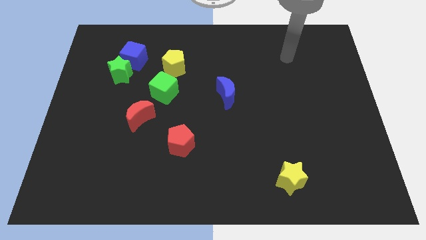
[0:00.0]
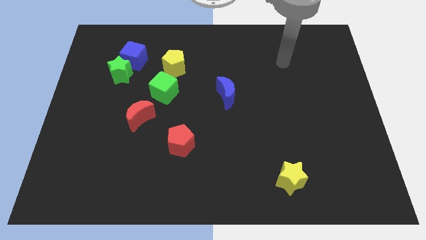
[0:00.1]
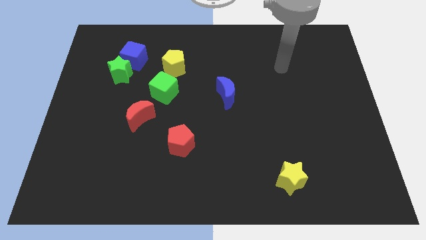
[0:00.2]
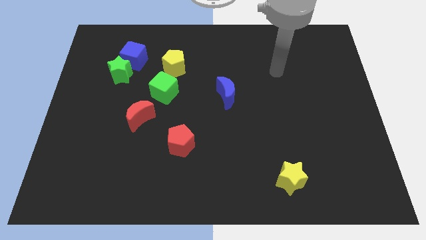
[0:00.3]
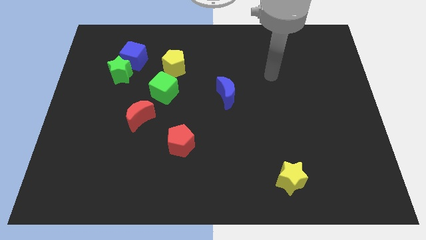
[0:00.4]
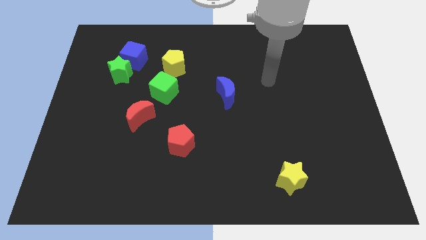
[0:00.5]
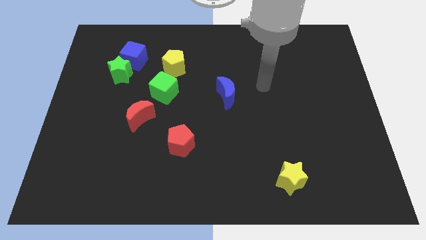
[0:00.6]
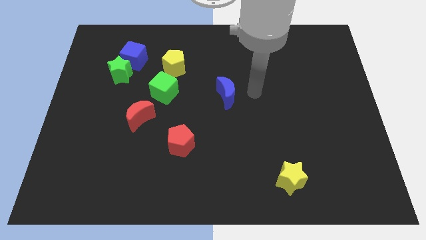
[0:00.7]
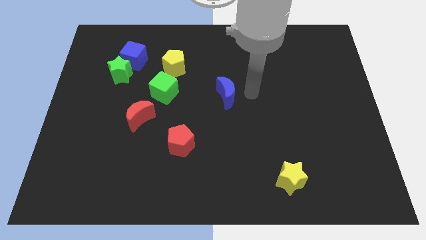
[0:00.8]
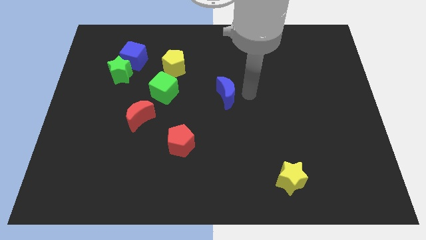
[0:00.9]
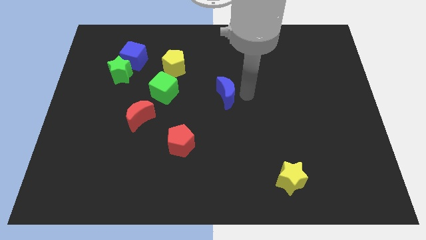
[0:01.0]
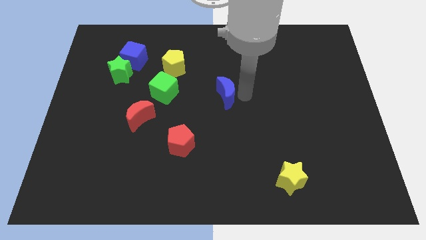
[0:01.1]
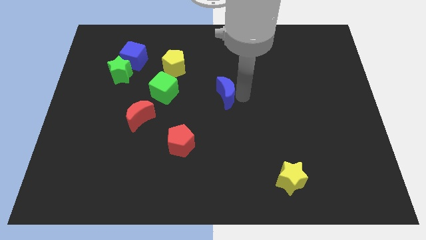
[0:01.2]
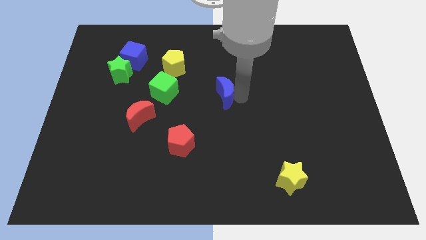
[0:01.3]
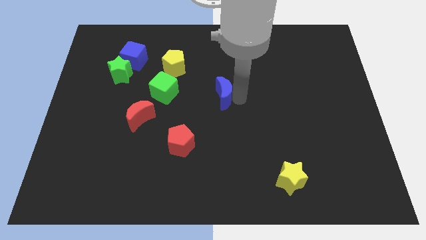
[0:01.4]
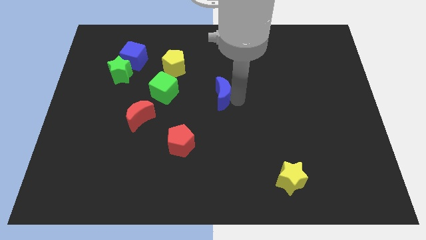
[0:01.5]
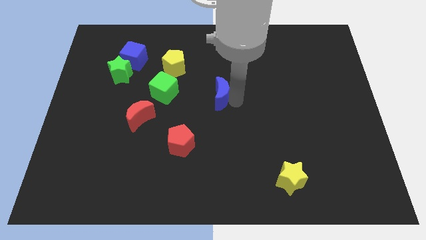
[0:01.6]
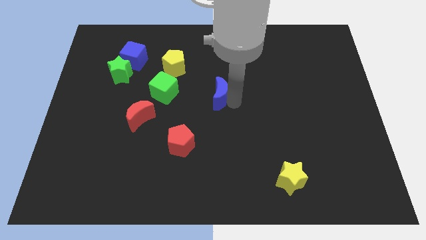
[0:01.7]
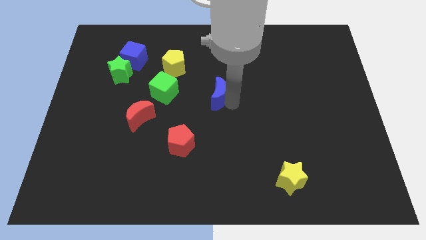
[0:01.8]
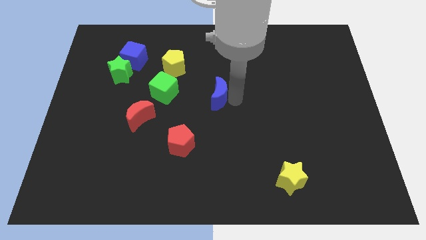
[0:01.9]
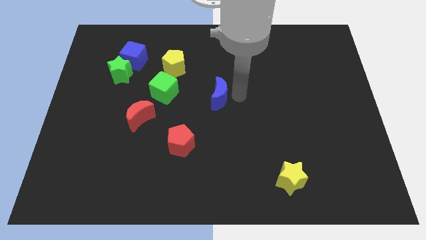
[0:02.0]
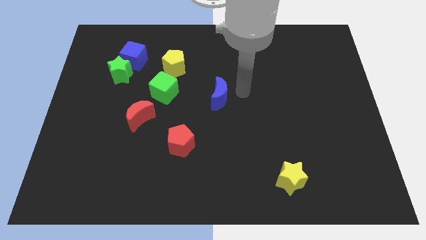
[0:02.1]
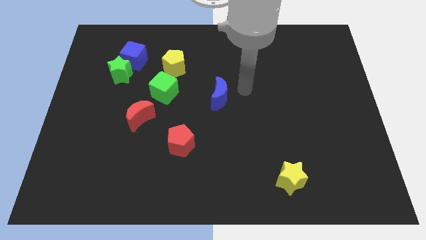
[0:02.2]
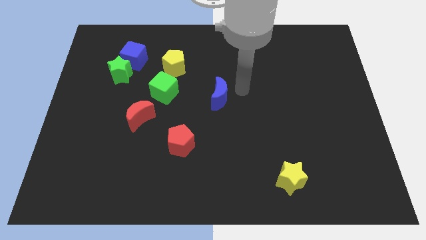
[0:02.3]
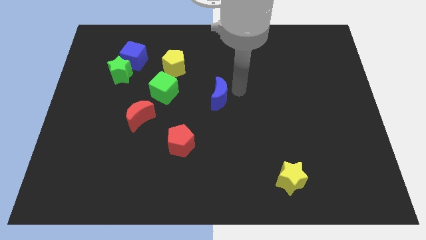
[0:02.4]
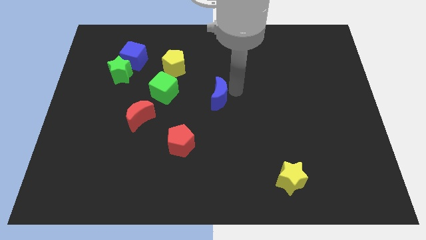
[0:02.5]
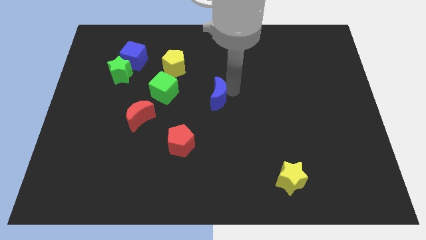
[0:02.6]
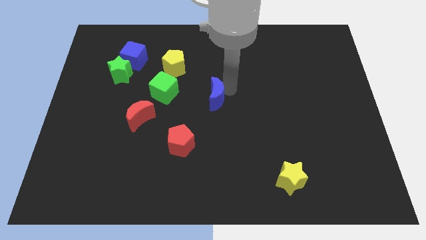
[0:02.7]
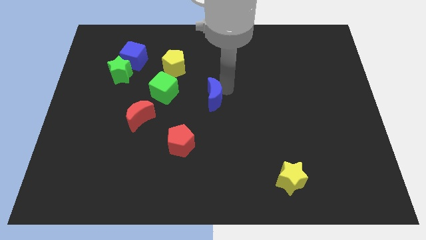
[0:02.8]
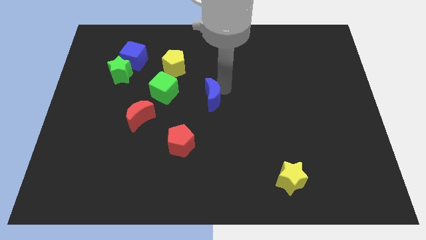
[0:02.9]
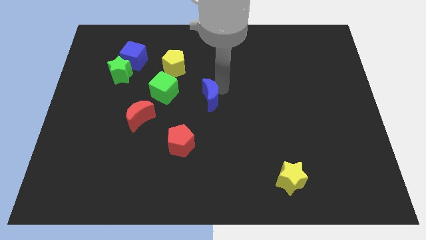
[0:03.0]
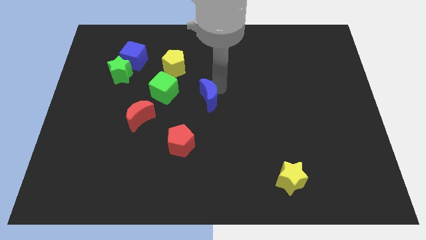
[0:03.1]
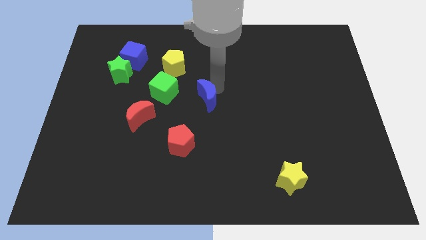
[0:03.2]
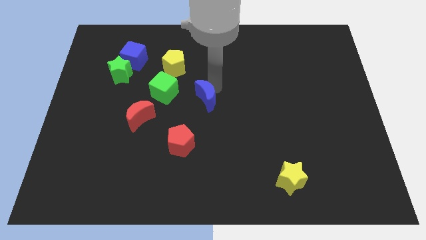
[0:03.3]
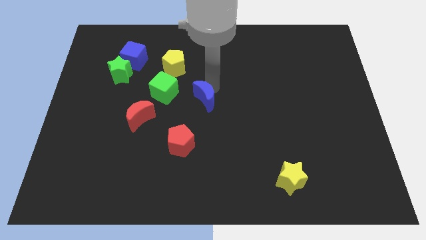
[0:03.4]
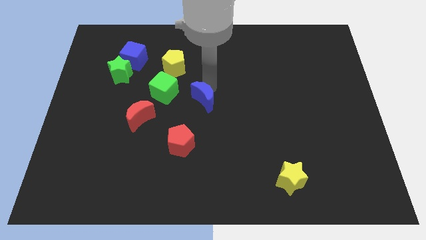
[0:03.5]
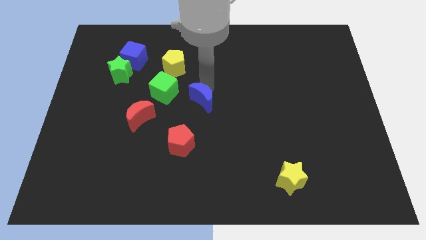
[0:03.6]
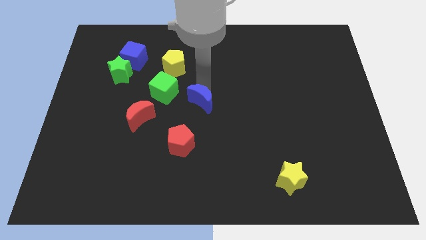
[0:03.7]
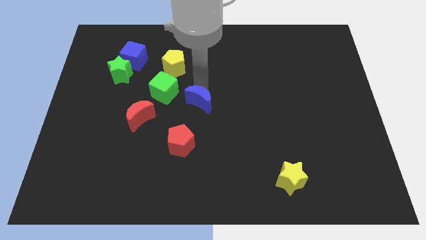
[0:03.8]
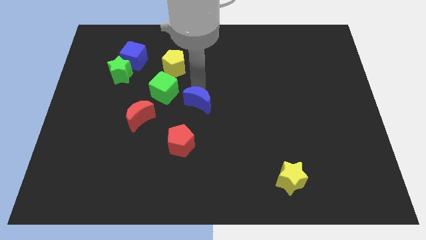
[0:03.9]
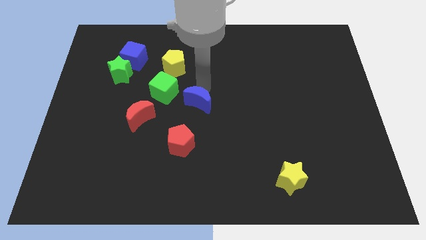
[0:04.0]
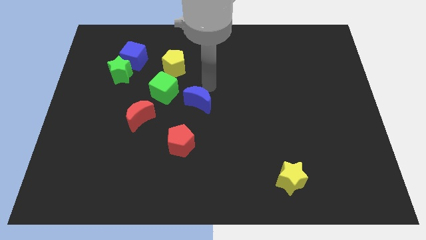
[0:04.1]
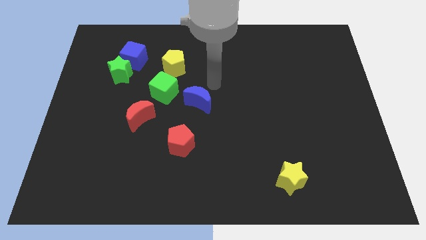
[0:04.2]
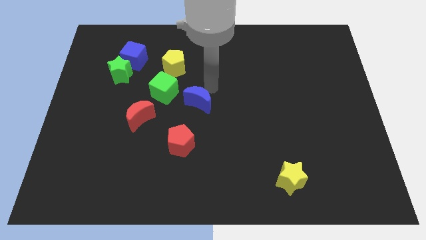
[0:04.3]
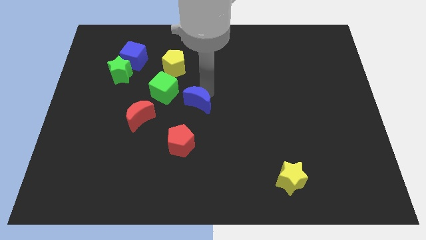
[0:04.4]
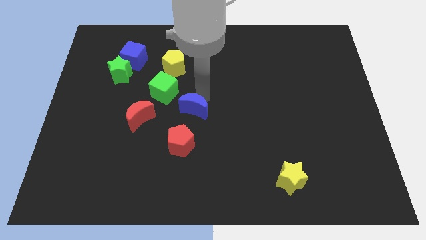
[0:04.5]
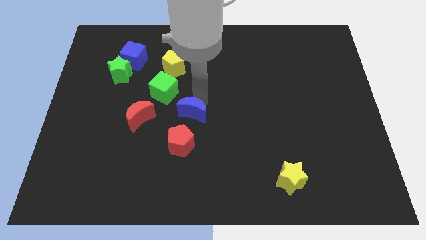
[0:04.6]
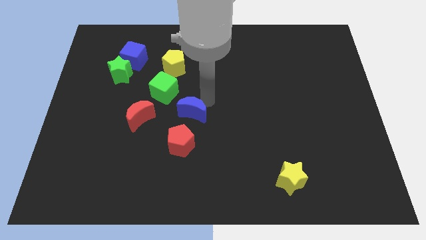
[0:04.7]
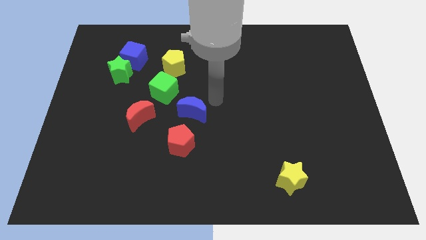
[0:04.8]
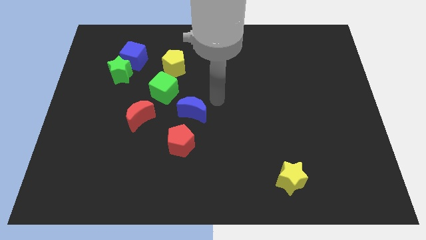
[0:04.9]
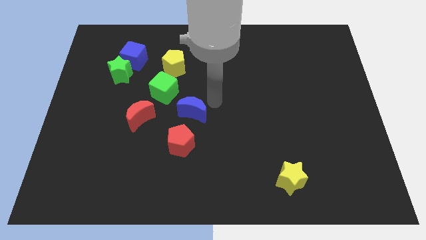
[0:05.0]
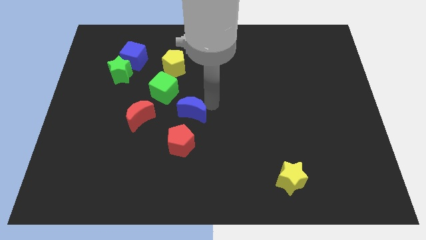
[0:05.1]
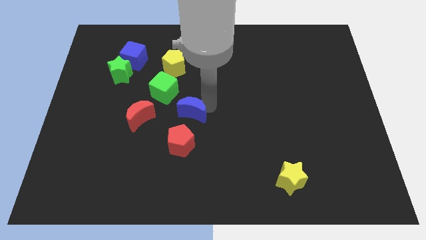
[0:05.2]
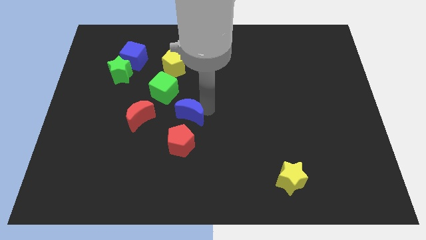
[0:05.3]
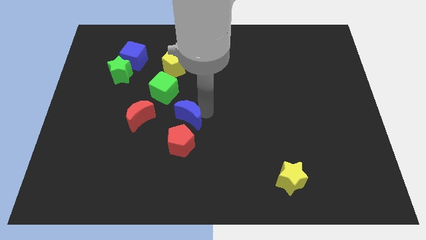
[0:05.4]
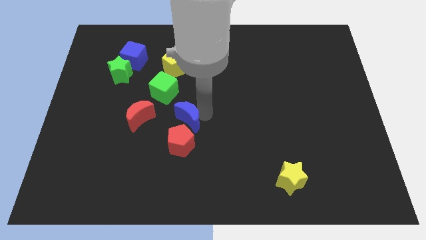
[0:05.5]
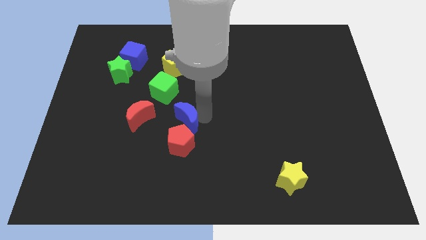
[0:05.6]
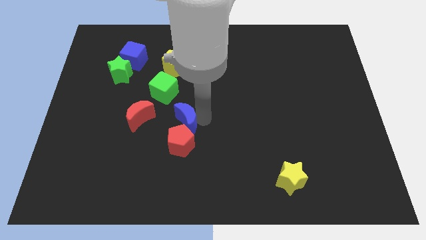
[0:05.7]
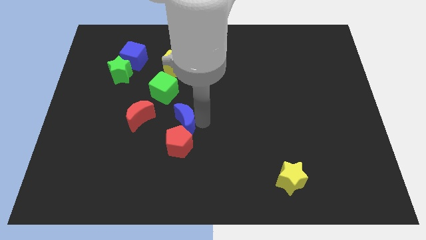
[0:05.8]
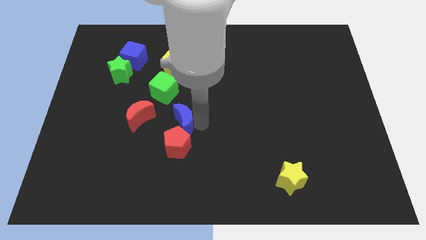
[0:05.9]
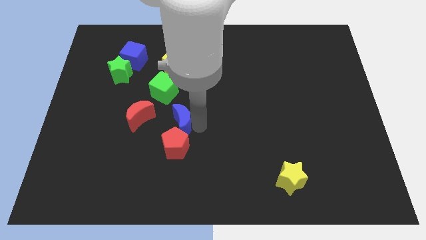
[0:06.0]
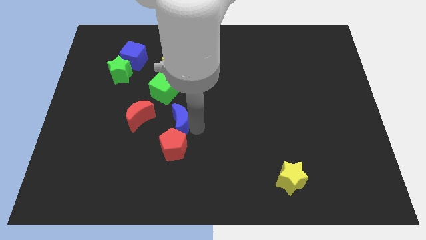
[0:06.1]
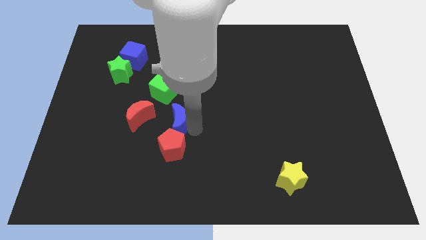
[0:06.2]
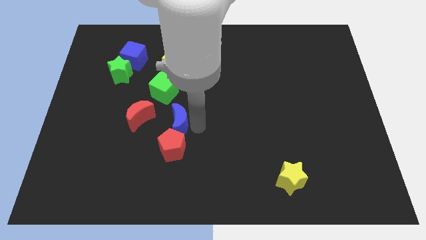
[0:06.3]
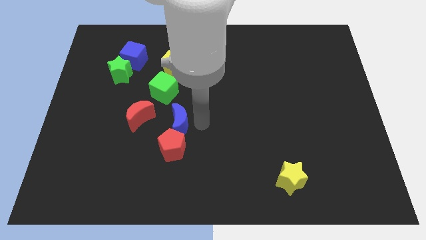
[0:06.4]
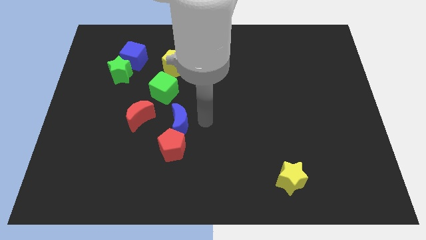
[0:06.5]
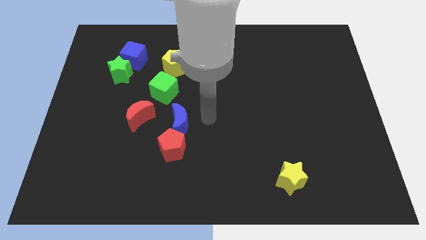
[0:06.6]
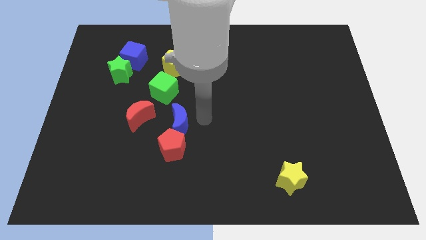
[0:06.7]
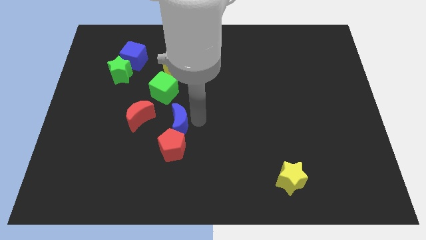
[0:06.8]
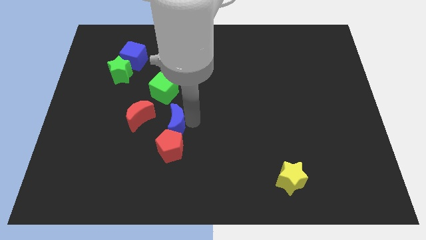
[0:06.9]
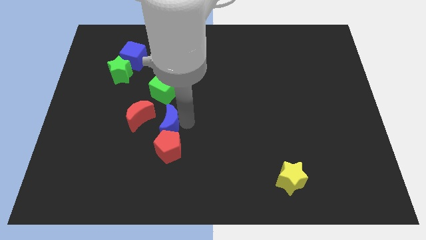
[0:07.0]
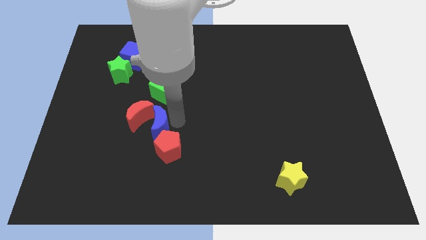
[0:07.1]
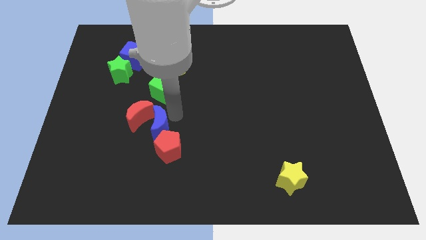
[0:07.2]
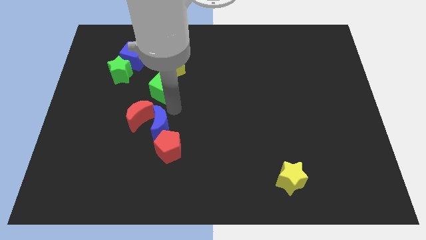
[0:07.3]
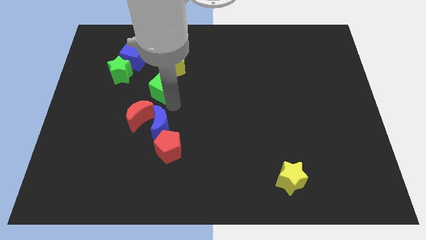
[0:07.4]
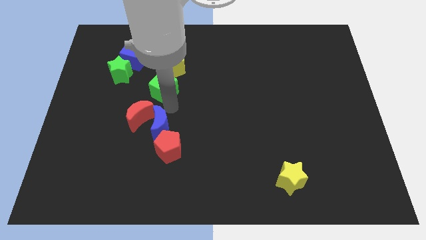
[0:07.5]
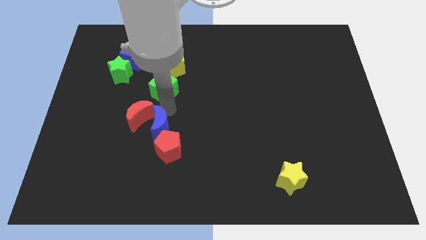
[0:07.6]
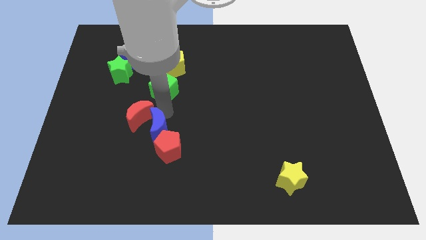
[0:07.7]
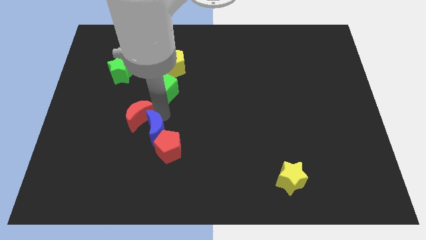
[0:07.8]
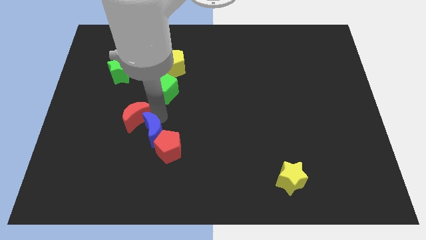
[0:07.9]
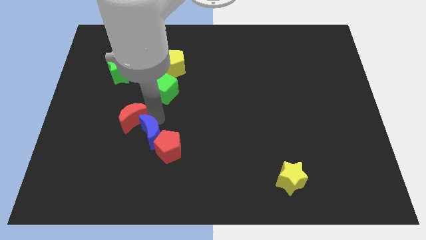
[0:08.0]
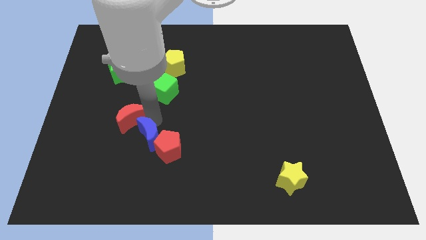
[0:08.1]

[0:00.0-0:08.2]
move the blue moon downwards and to the left
